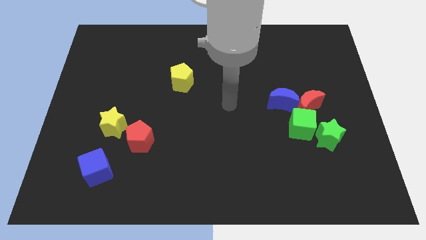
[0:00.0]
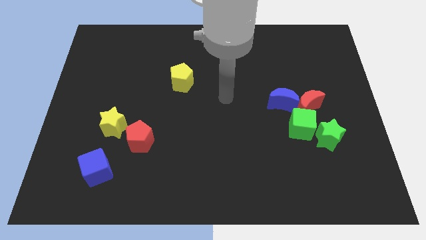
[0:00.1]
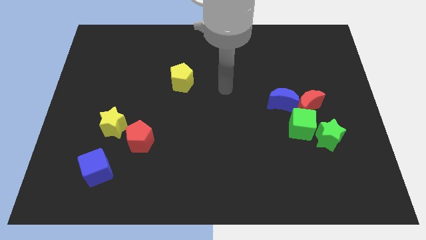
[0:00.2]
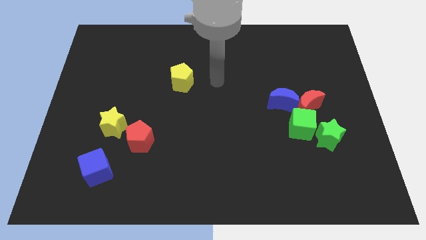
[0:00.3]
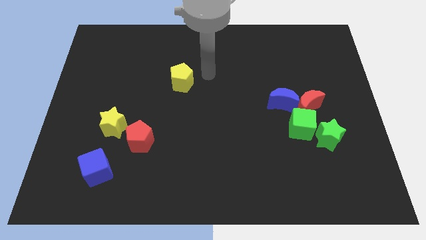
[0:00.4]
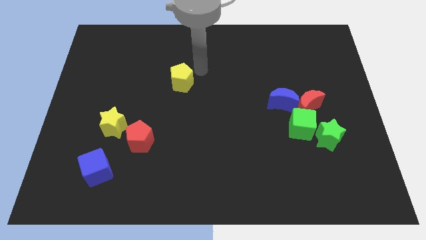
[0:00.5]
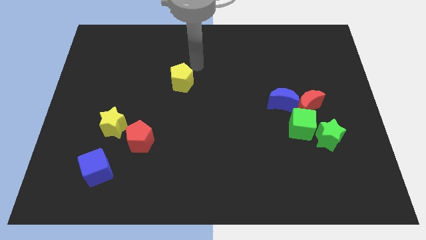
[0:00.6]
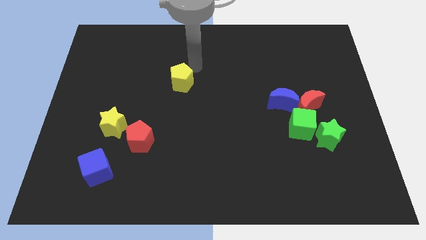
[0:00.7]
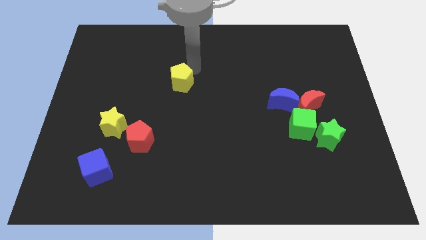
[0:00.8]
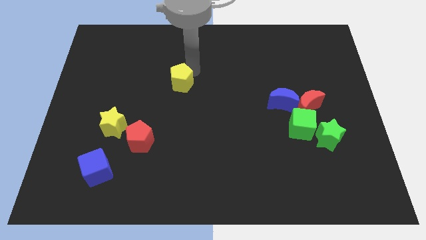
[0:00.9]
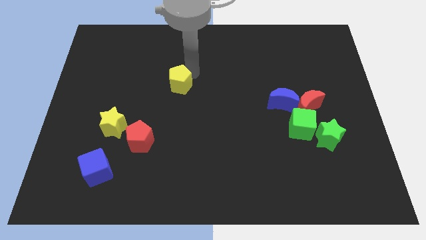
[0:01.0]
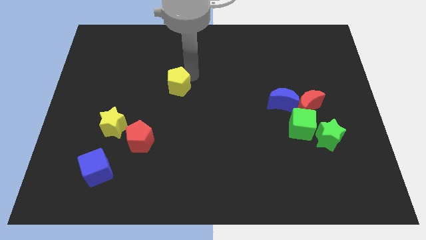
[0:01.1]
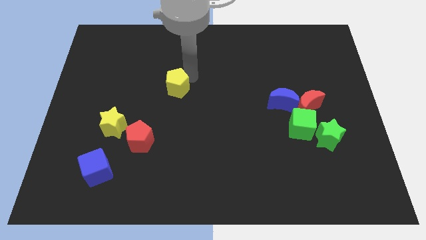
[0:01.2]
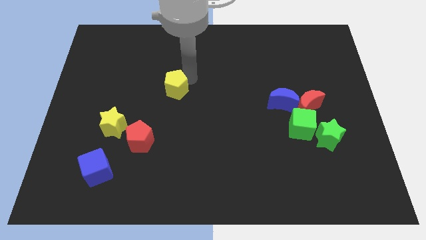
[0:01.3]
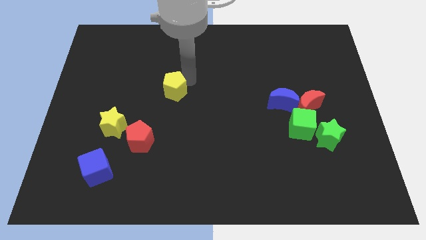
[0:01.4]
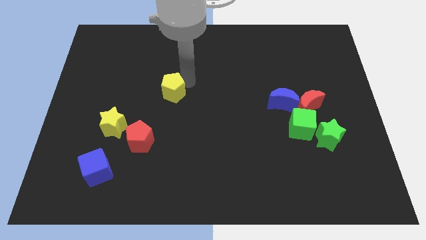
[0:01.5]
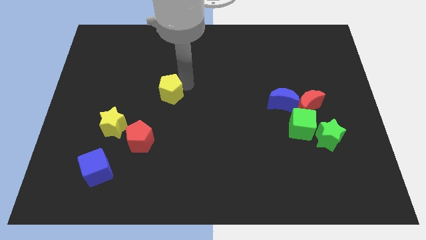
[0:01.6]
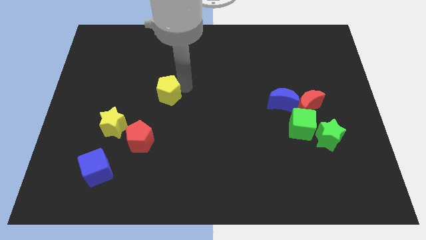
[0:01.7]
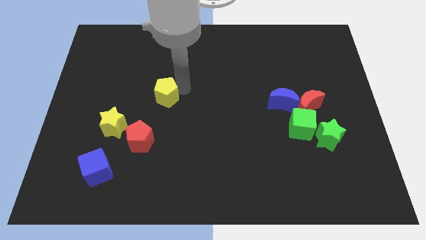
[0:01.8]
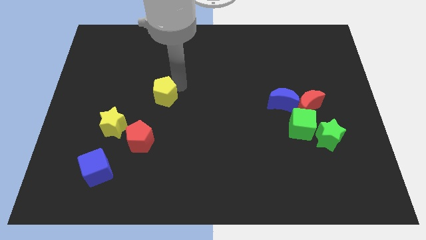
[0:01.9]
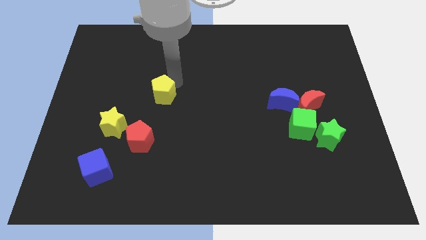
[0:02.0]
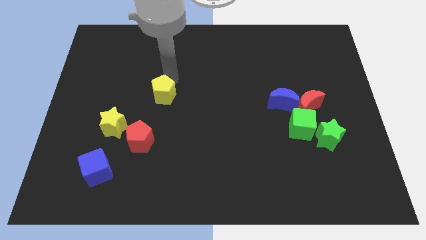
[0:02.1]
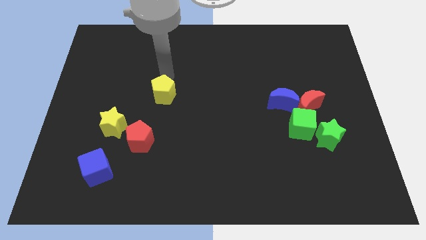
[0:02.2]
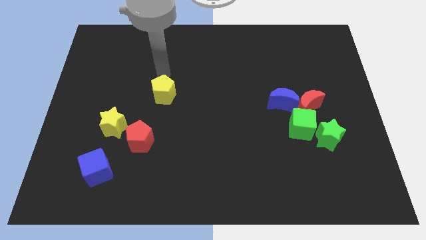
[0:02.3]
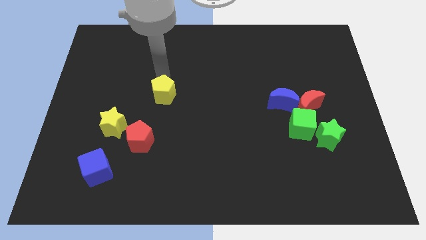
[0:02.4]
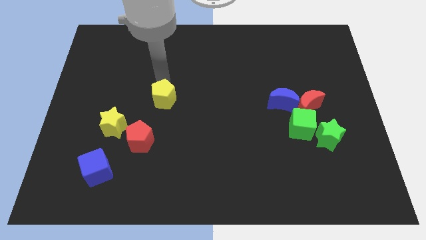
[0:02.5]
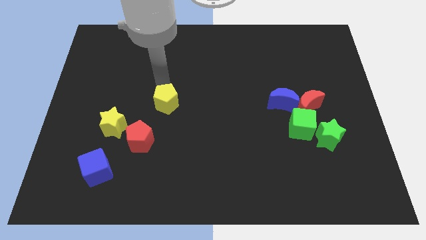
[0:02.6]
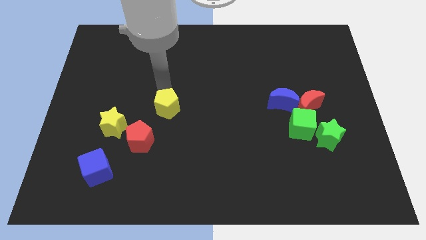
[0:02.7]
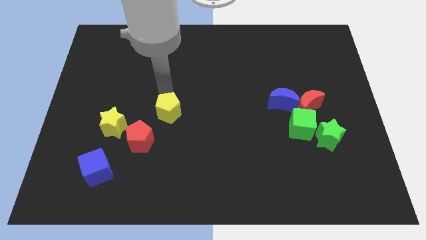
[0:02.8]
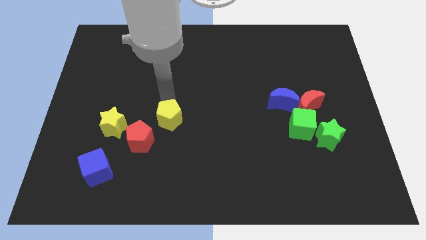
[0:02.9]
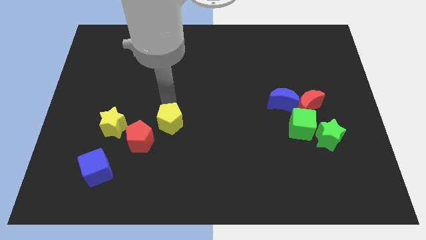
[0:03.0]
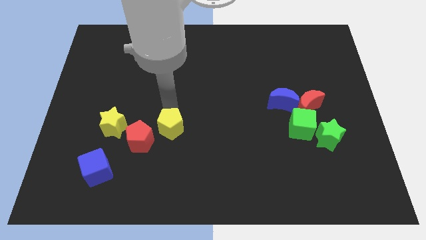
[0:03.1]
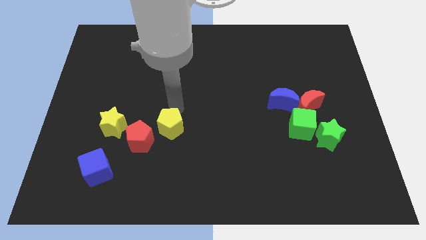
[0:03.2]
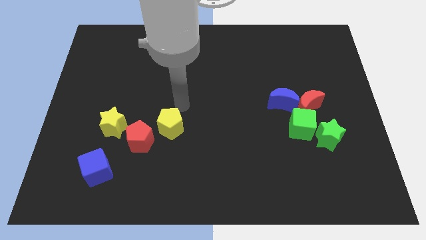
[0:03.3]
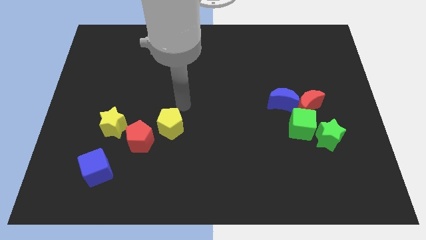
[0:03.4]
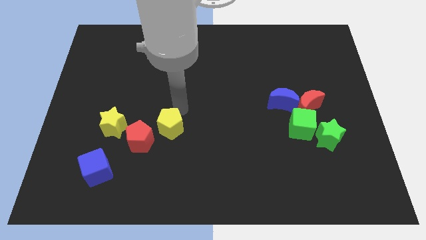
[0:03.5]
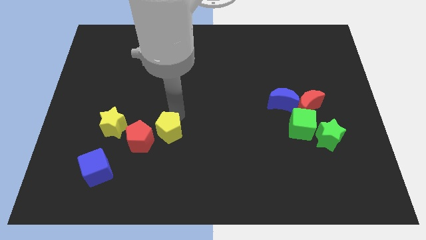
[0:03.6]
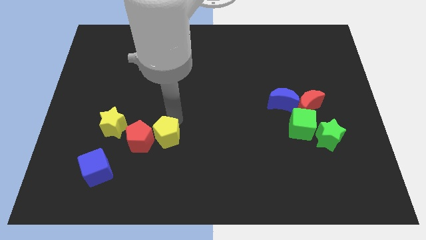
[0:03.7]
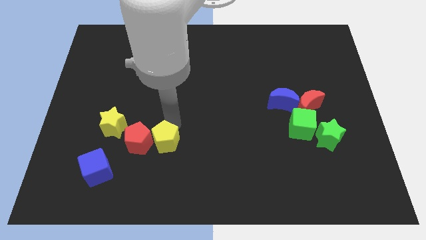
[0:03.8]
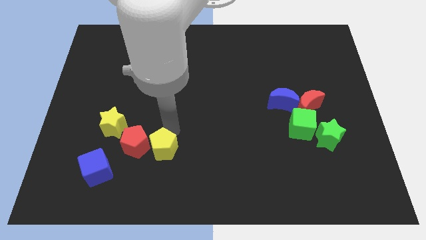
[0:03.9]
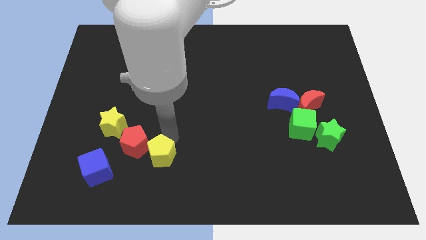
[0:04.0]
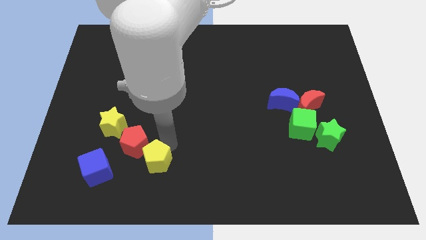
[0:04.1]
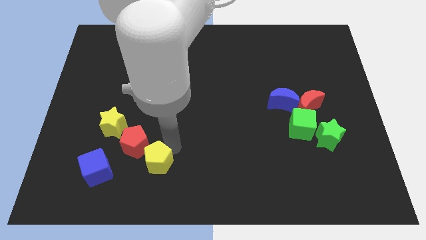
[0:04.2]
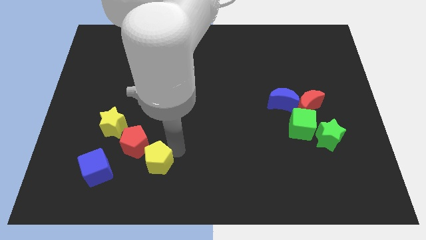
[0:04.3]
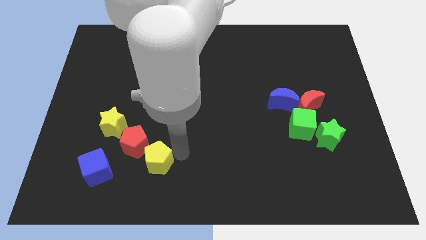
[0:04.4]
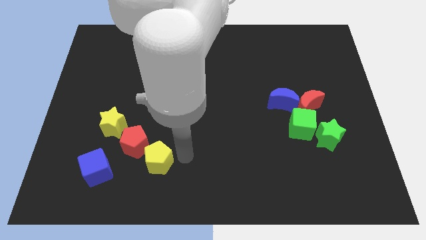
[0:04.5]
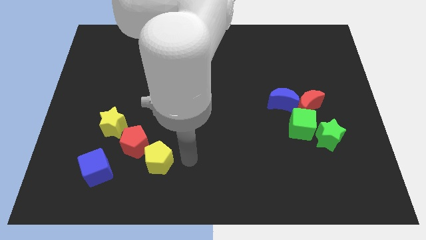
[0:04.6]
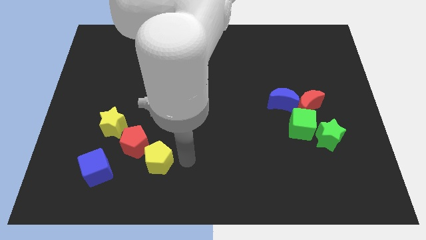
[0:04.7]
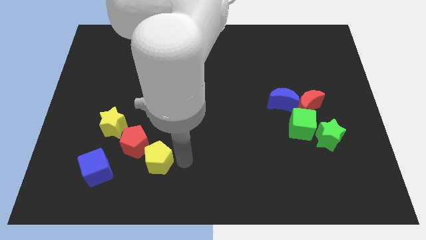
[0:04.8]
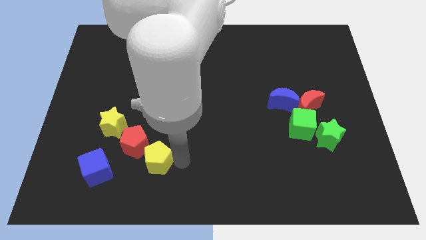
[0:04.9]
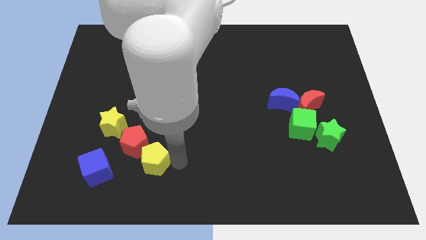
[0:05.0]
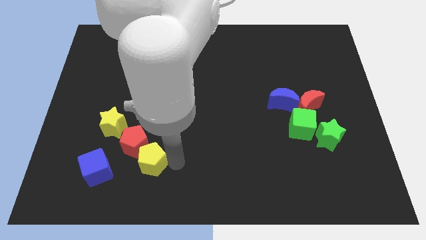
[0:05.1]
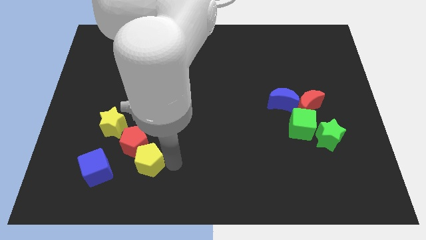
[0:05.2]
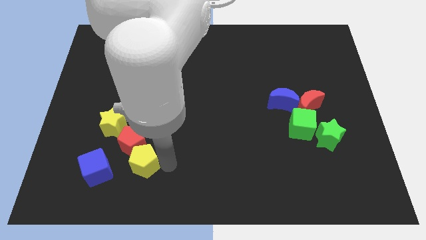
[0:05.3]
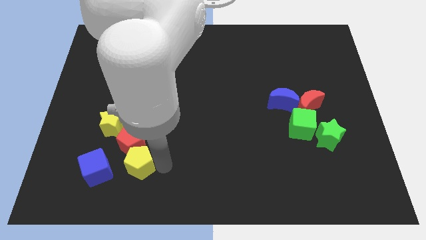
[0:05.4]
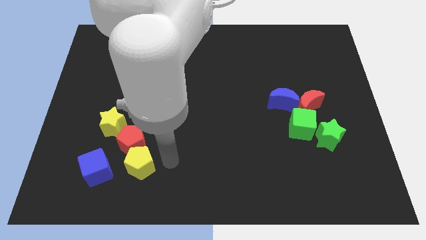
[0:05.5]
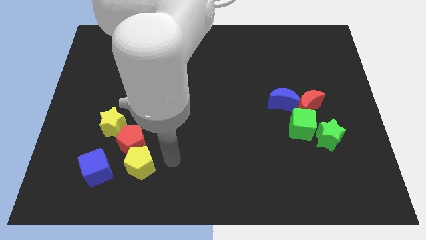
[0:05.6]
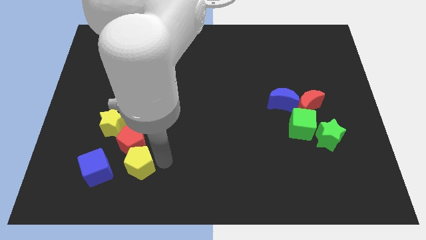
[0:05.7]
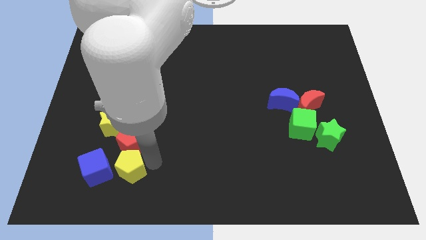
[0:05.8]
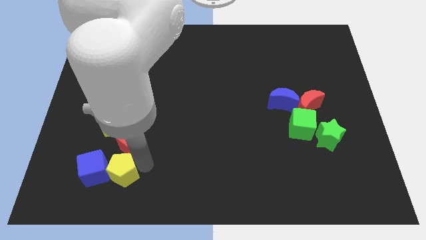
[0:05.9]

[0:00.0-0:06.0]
slide the yellow pentagon next to the blue cube

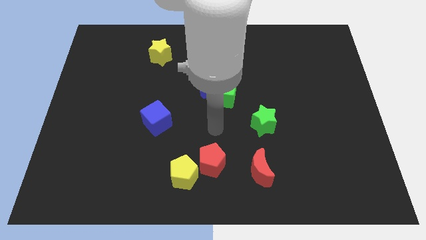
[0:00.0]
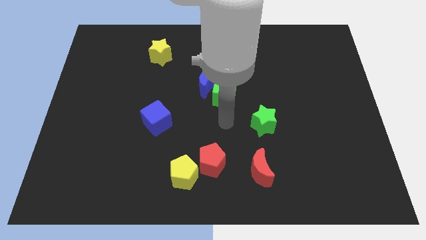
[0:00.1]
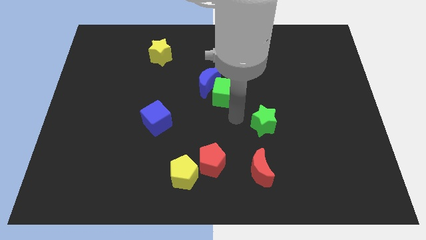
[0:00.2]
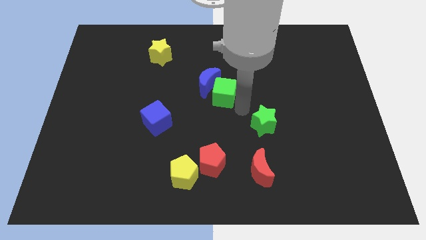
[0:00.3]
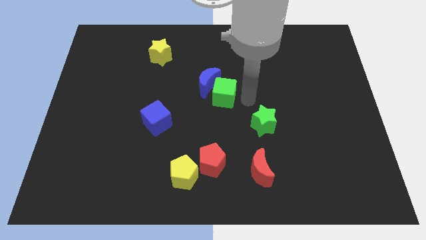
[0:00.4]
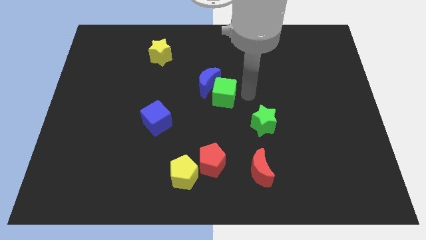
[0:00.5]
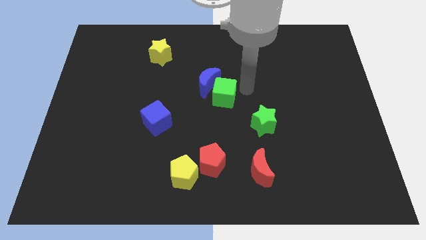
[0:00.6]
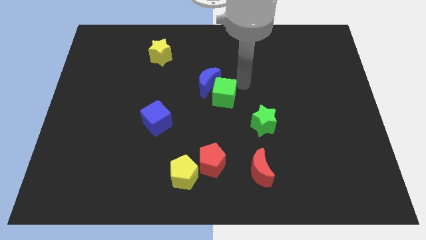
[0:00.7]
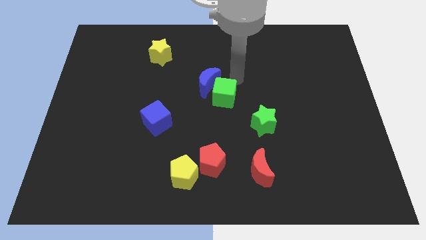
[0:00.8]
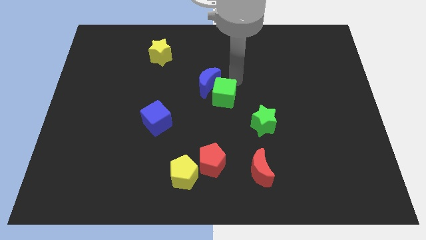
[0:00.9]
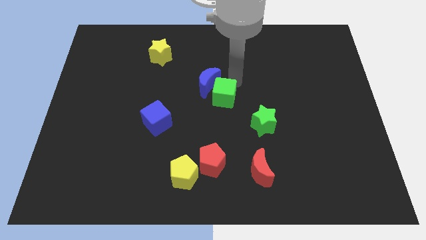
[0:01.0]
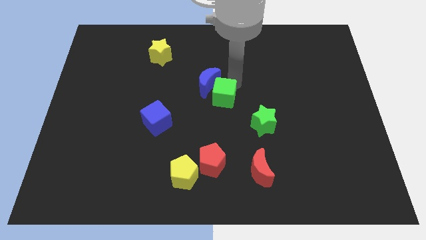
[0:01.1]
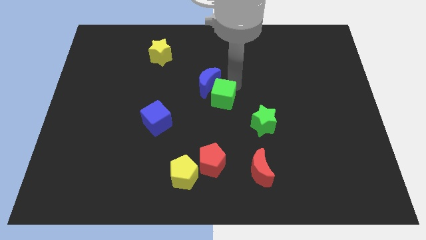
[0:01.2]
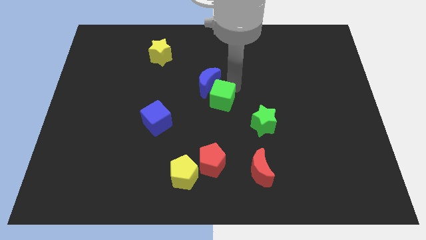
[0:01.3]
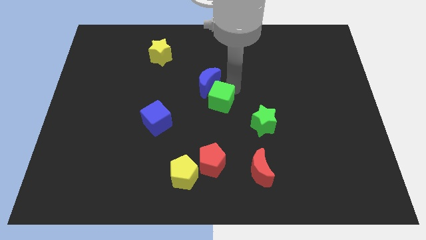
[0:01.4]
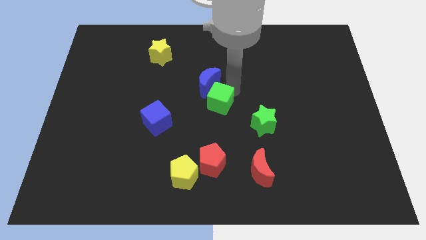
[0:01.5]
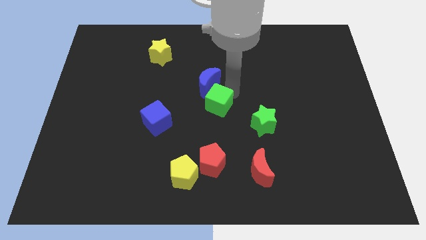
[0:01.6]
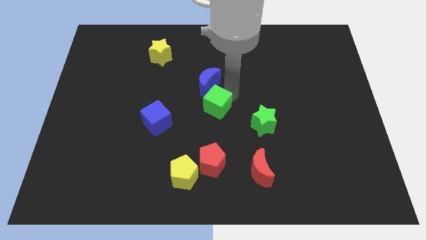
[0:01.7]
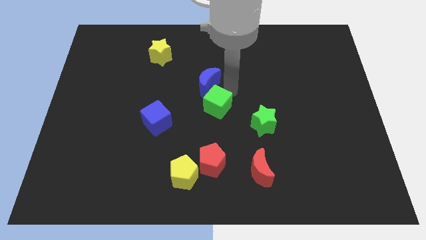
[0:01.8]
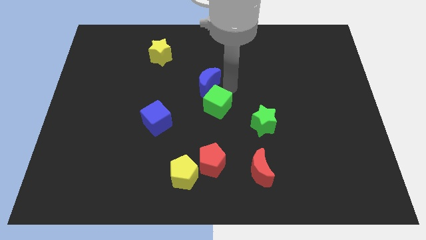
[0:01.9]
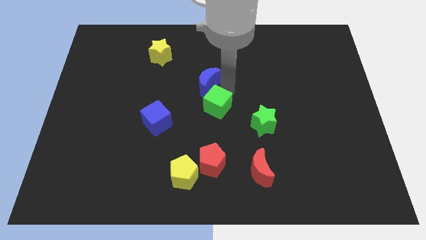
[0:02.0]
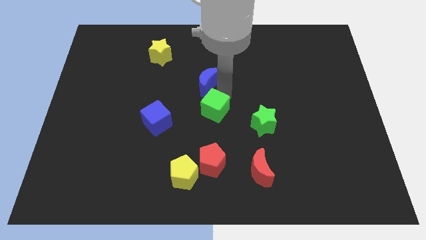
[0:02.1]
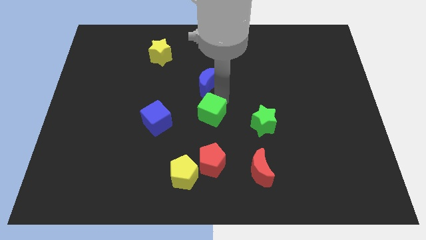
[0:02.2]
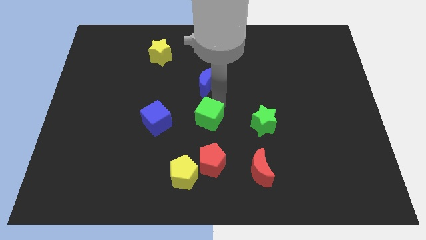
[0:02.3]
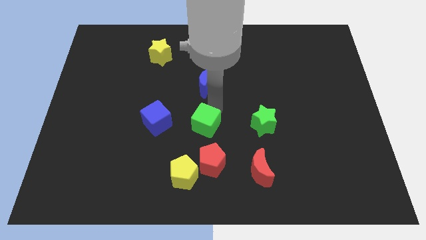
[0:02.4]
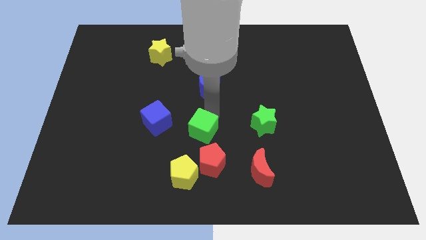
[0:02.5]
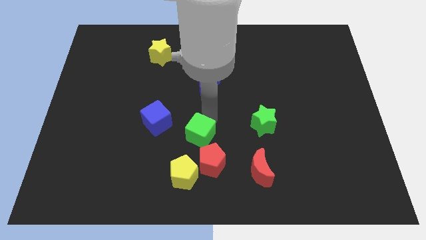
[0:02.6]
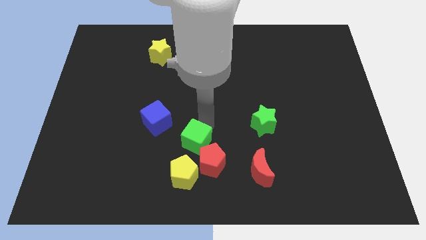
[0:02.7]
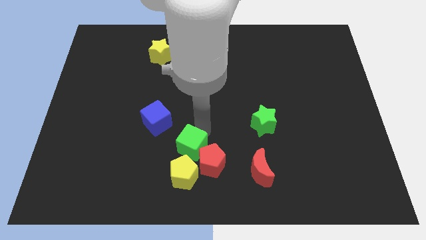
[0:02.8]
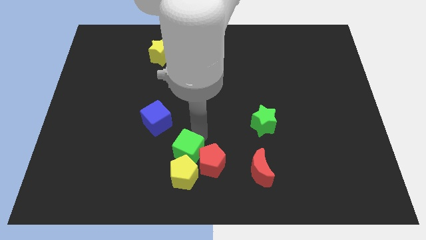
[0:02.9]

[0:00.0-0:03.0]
push the green cube close to the yellow pentagon
